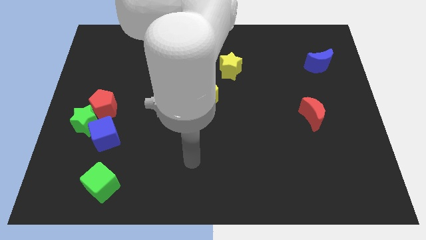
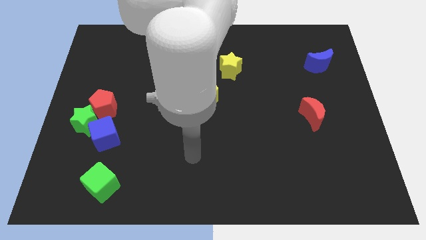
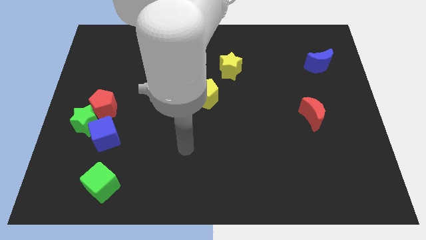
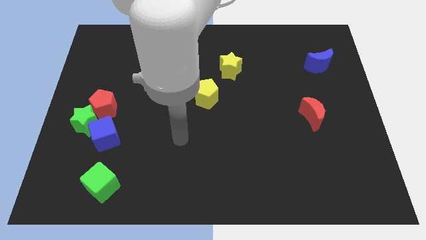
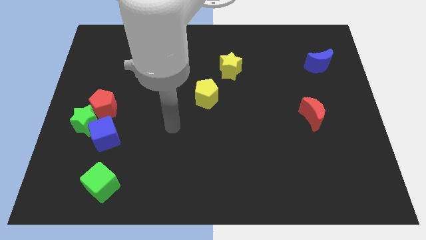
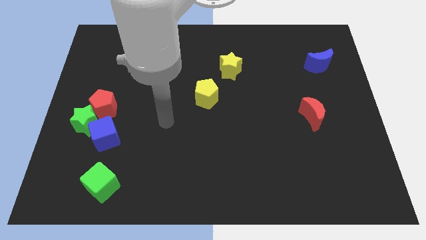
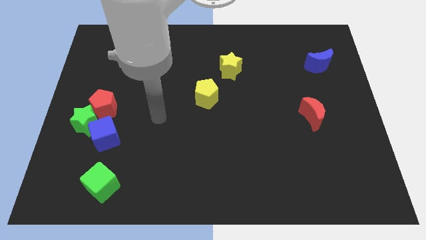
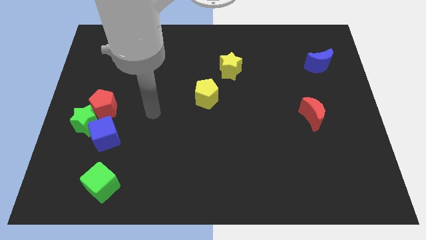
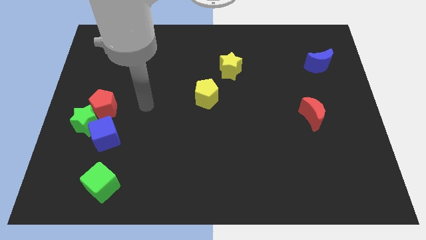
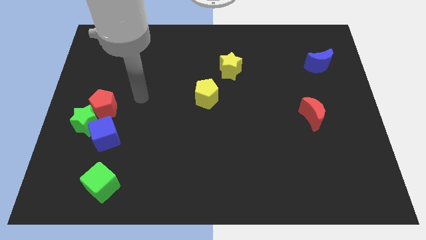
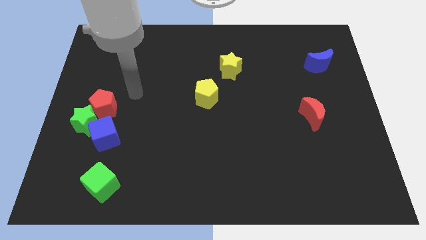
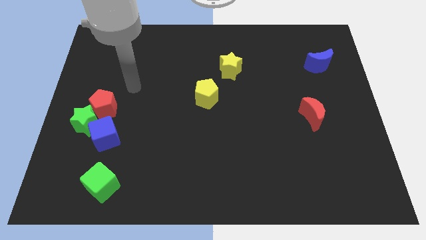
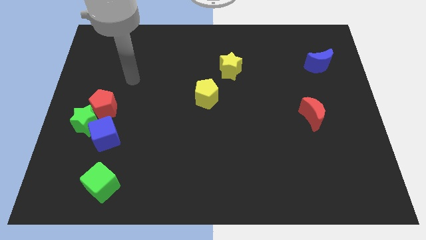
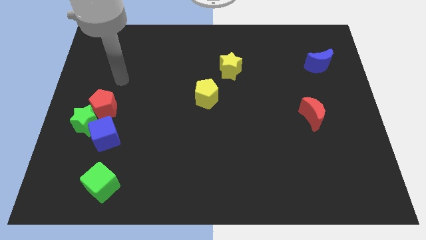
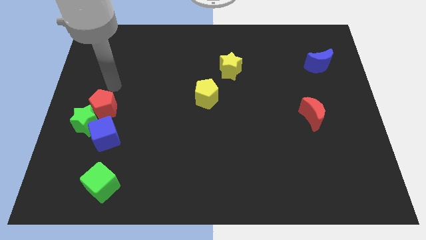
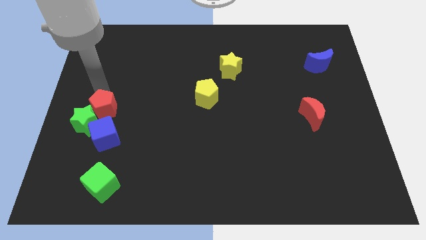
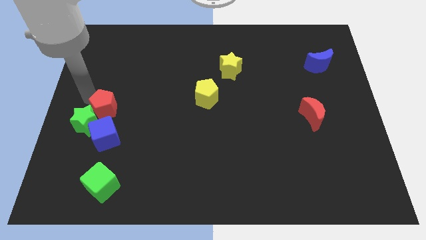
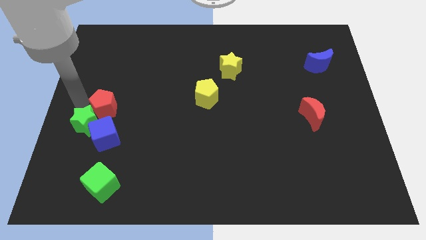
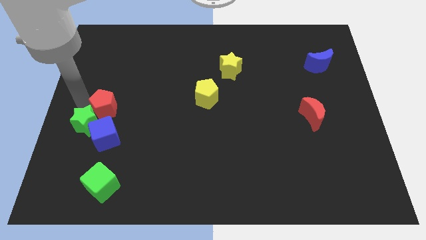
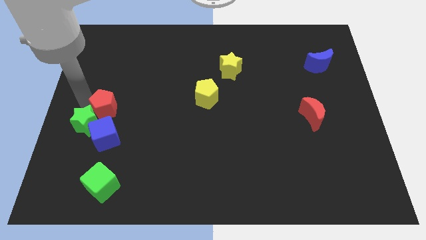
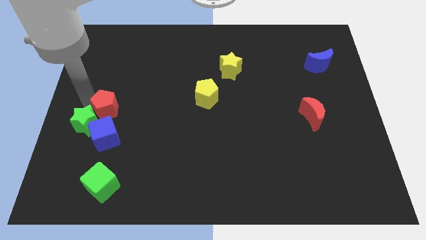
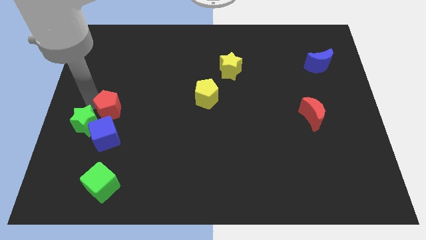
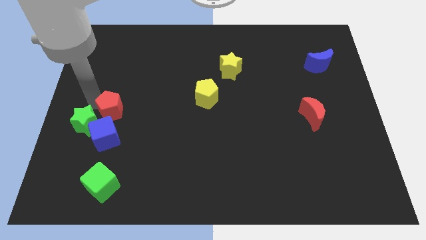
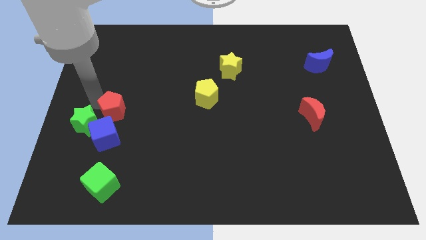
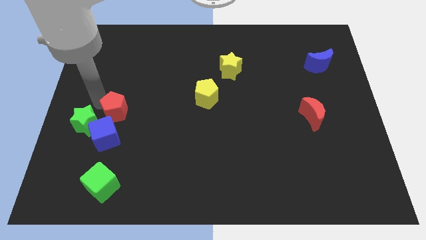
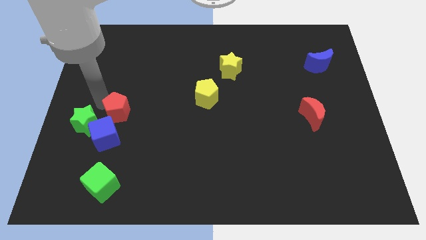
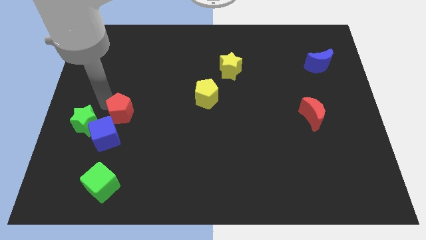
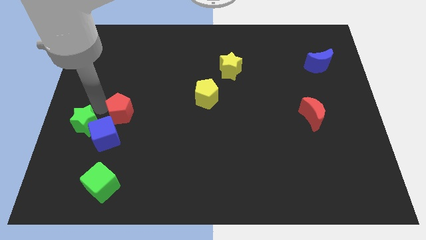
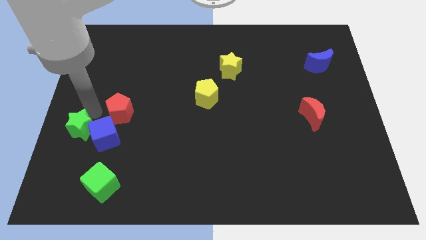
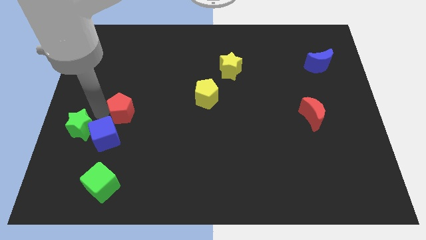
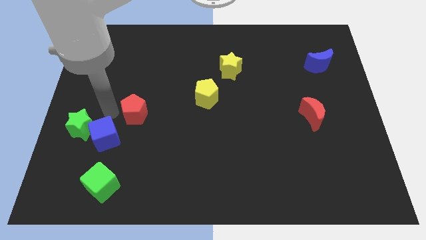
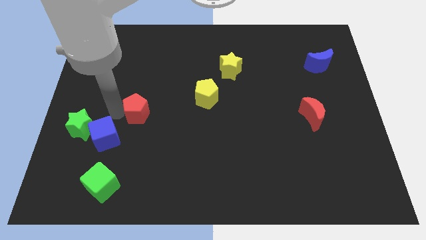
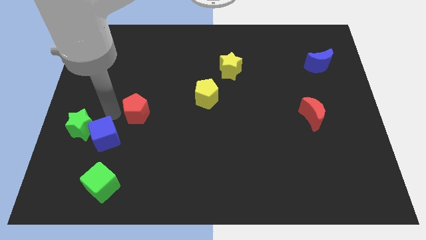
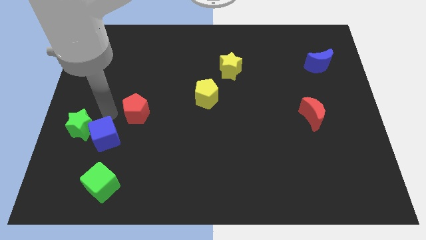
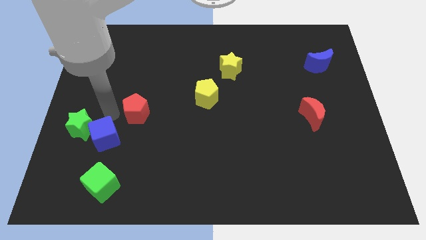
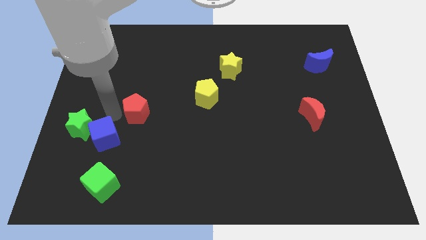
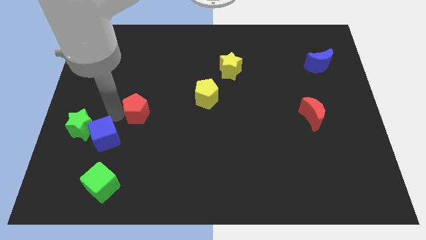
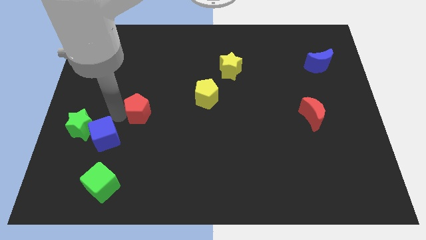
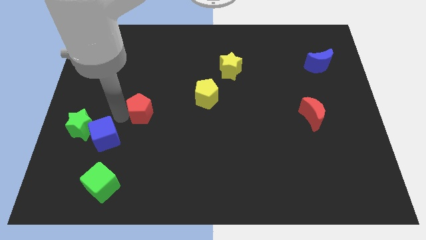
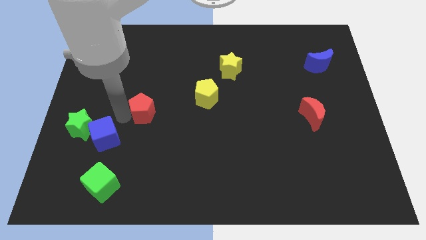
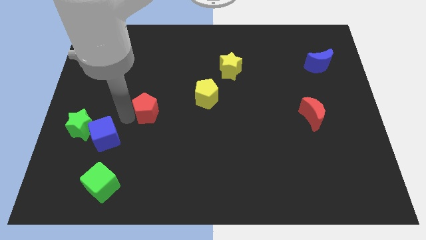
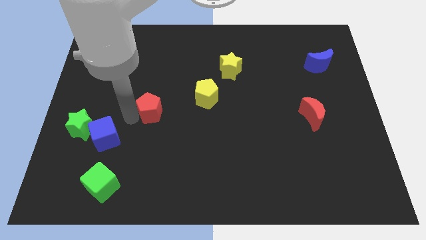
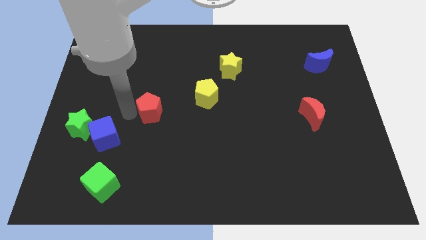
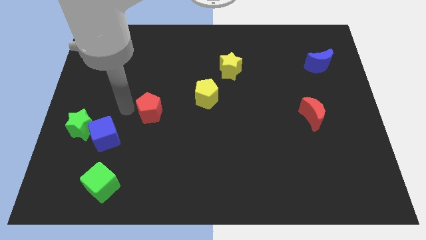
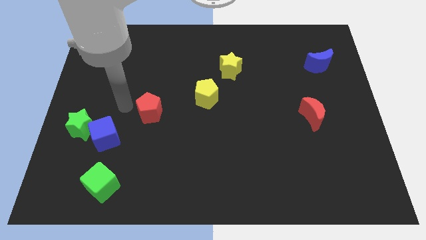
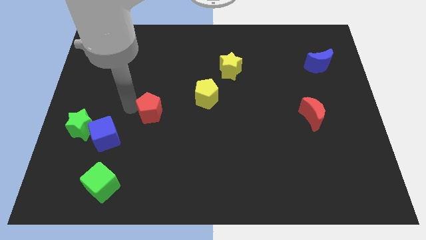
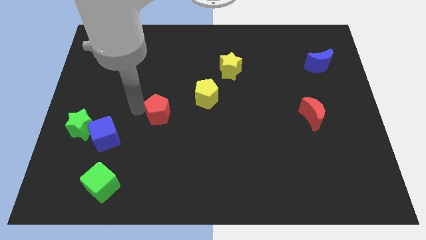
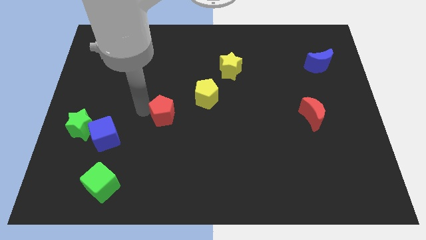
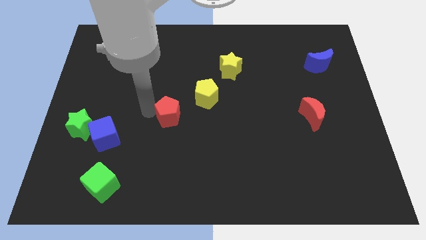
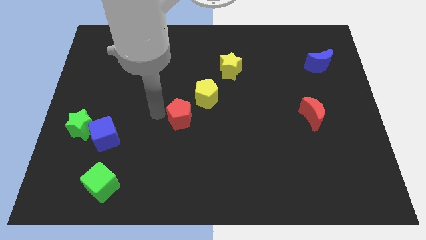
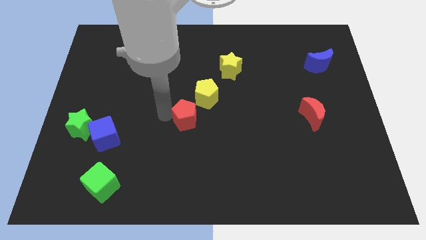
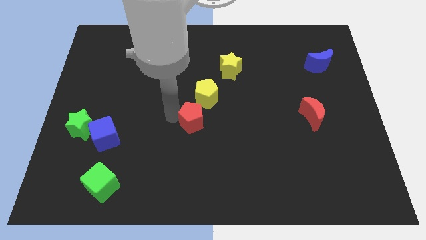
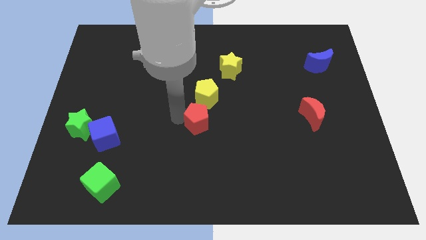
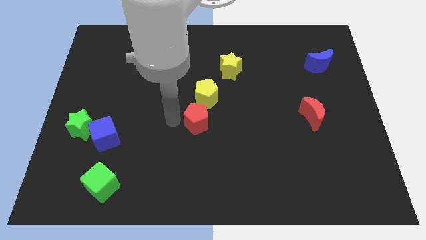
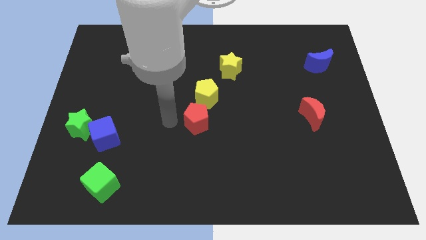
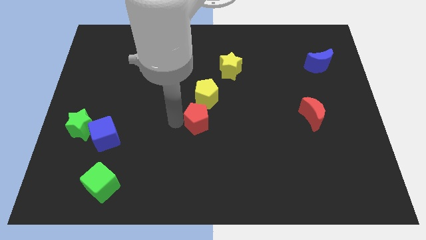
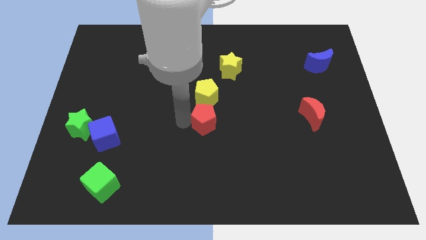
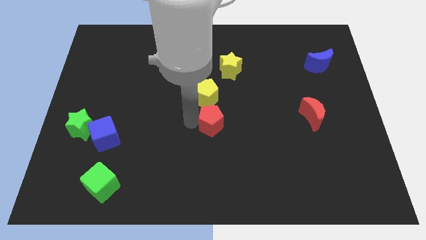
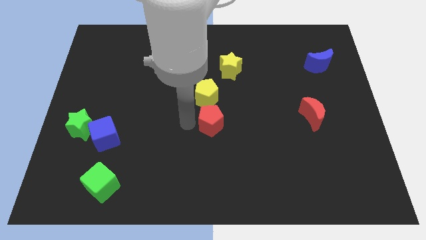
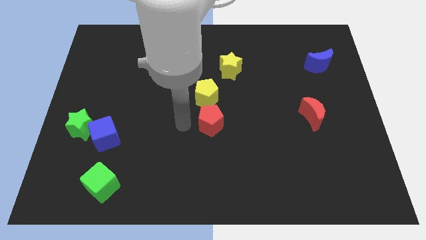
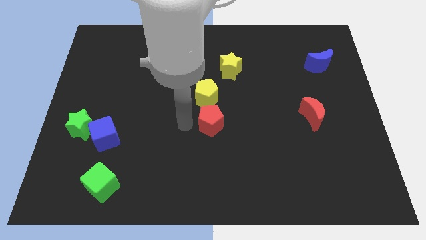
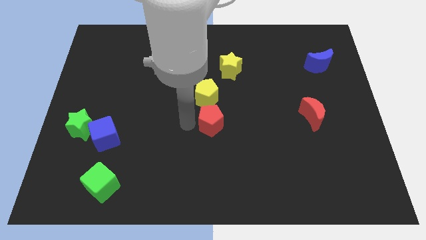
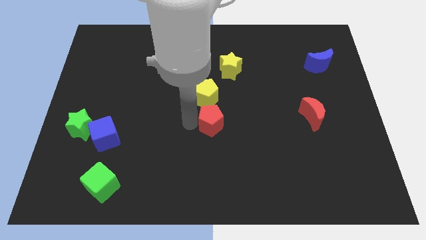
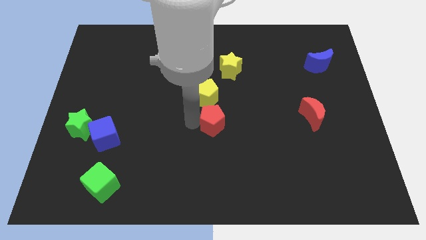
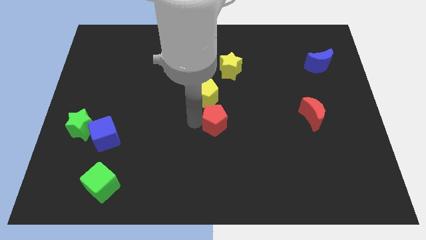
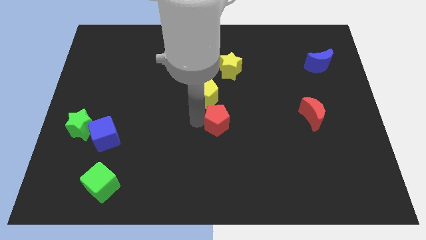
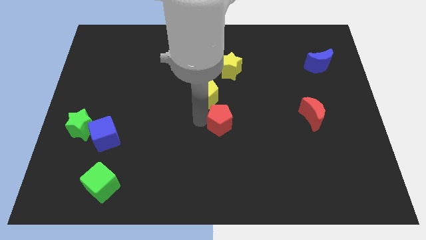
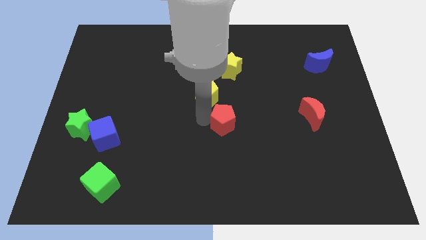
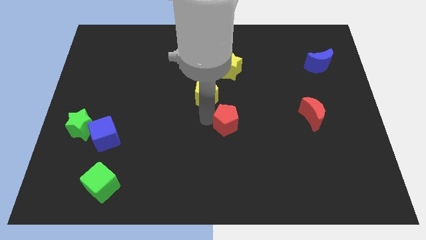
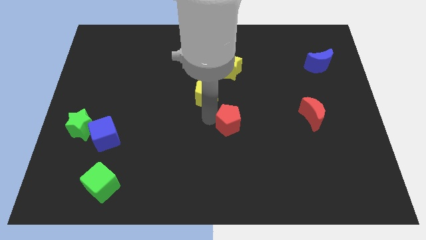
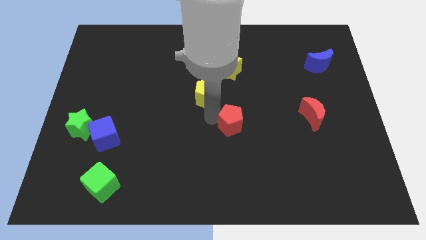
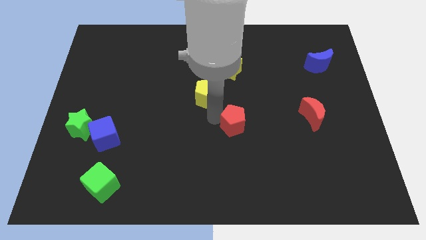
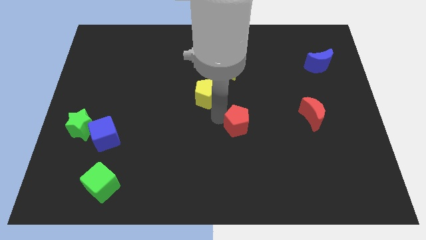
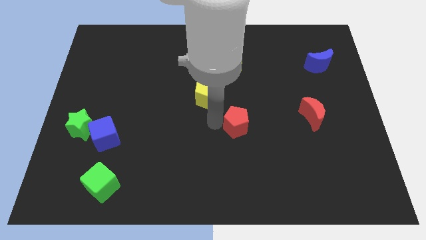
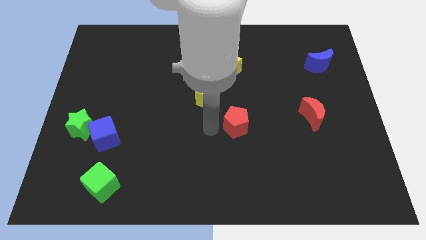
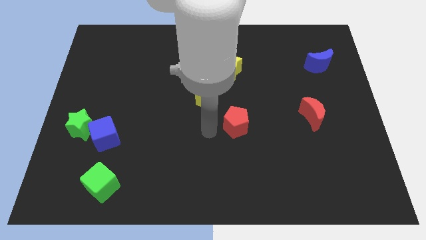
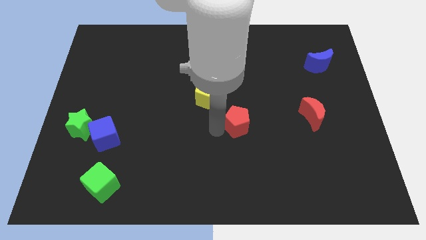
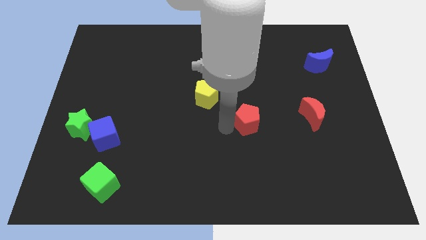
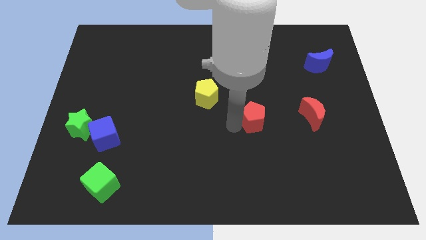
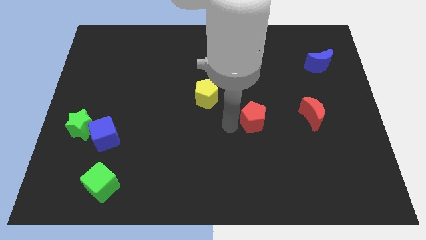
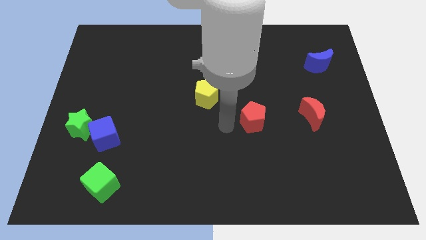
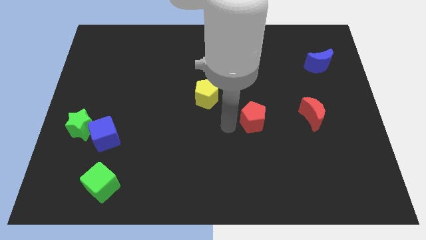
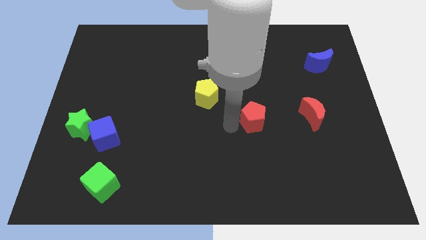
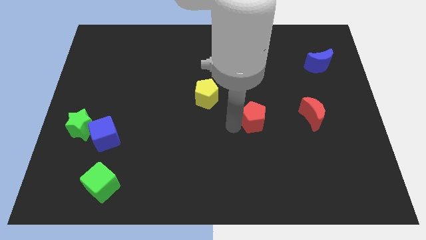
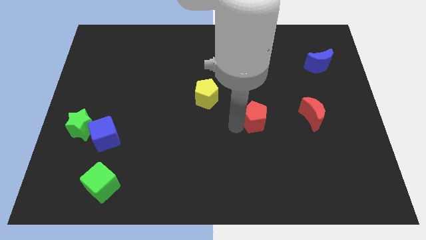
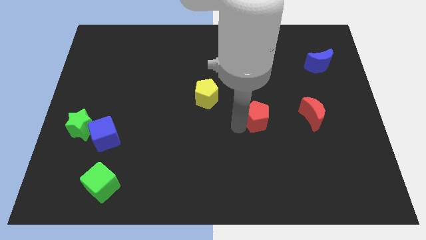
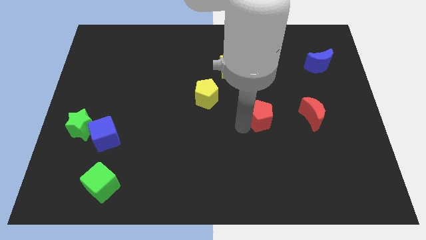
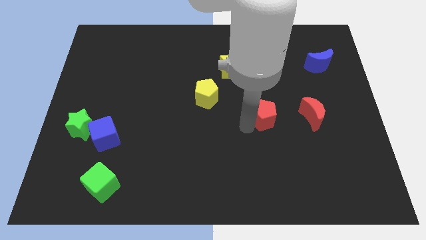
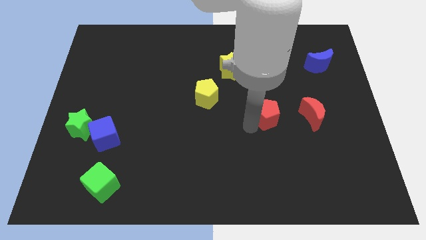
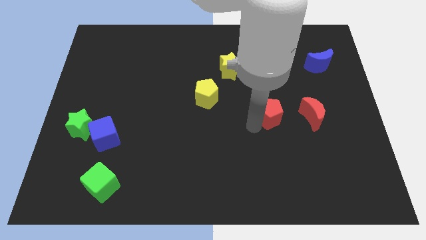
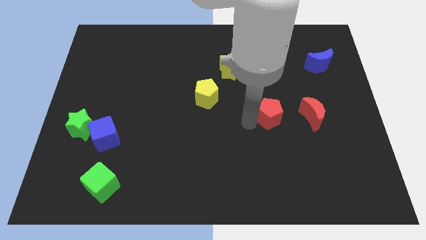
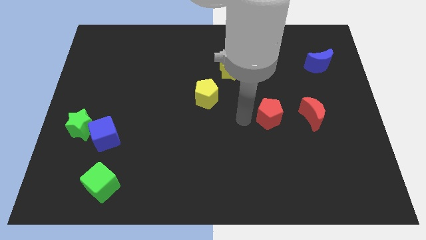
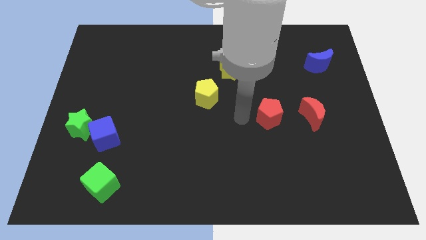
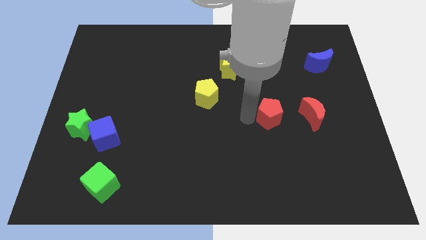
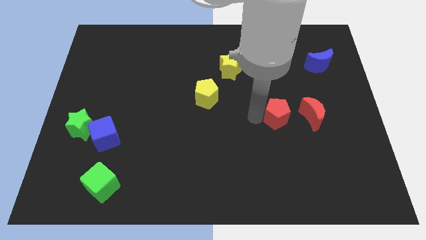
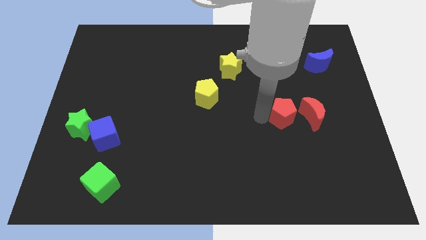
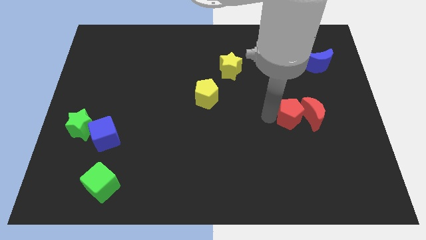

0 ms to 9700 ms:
slide the red pentagon next to the red moon
